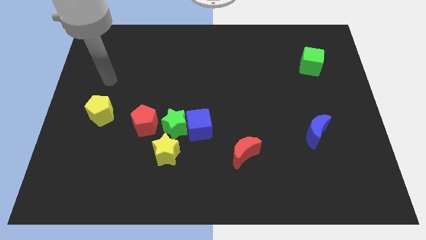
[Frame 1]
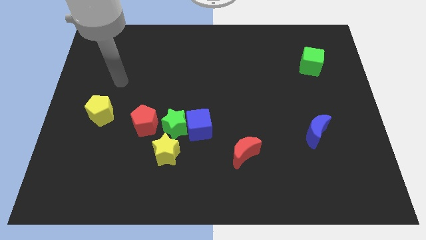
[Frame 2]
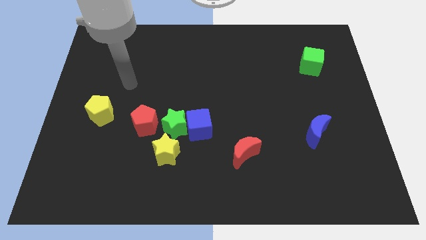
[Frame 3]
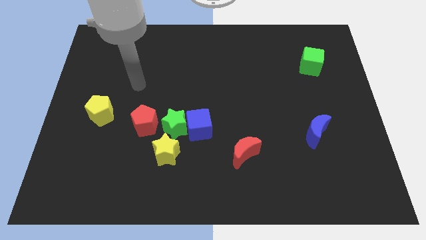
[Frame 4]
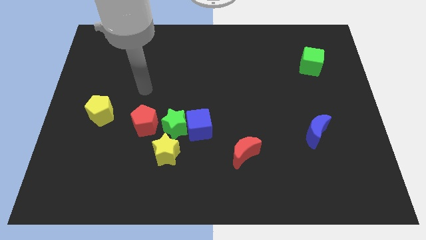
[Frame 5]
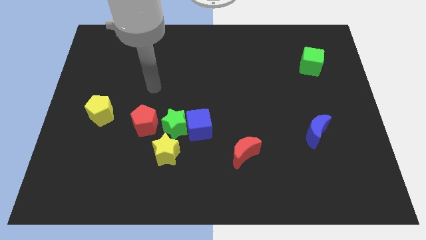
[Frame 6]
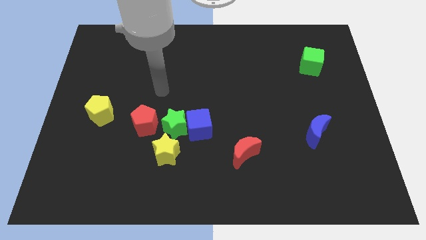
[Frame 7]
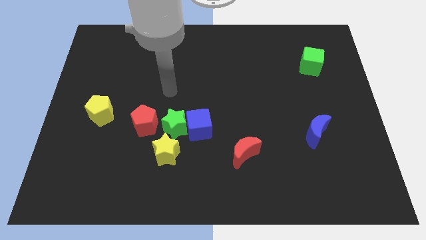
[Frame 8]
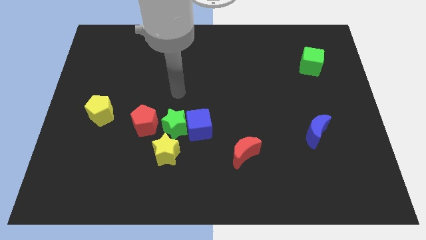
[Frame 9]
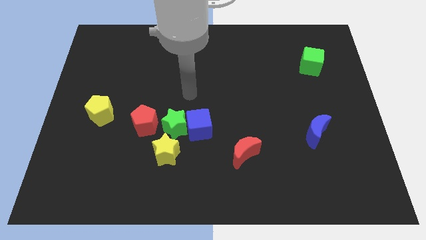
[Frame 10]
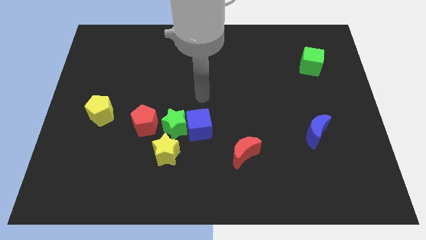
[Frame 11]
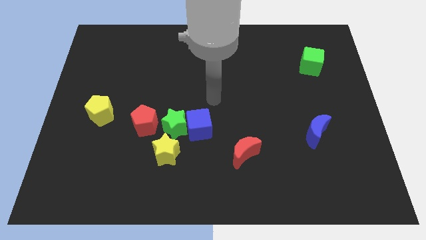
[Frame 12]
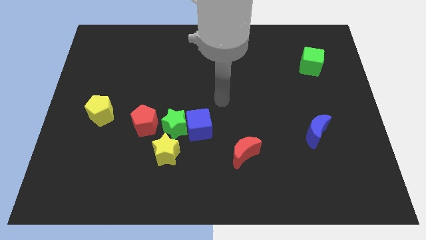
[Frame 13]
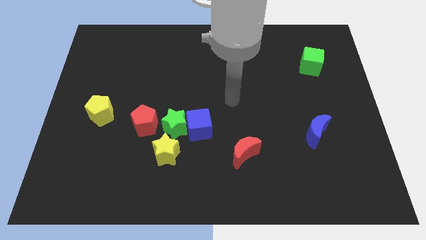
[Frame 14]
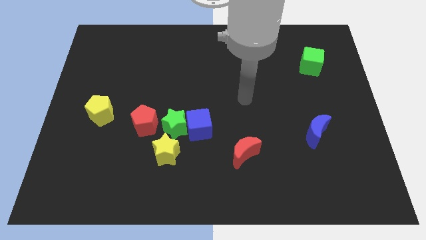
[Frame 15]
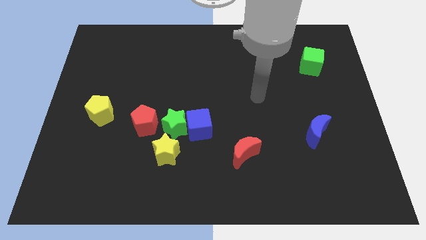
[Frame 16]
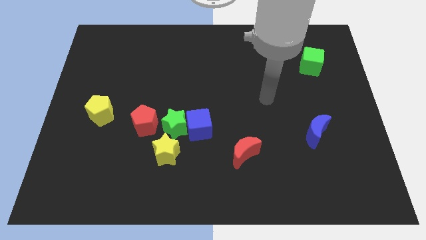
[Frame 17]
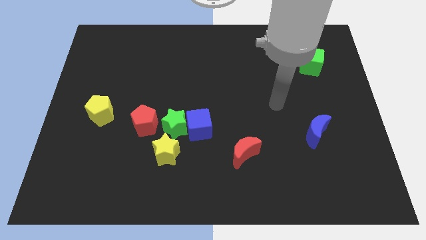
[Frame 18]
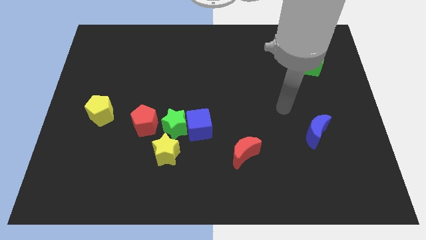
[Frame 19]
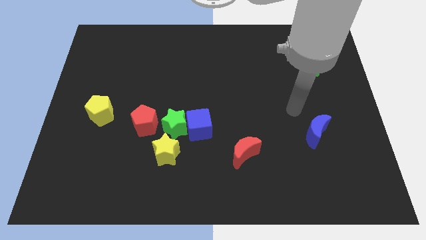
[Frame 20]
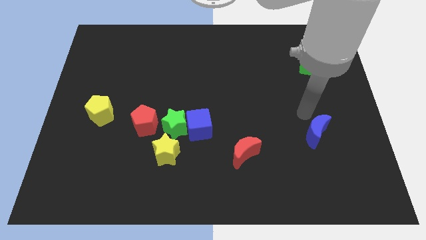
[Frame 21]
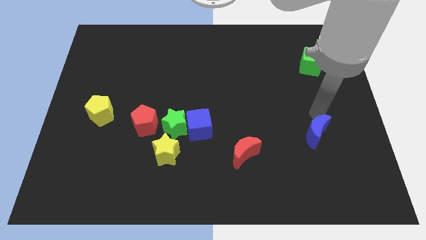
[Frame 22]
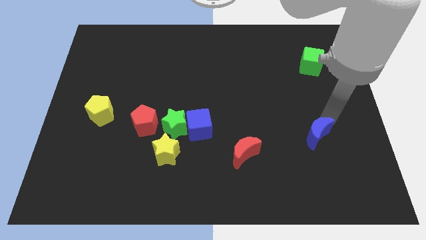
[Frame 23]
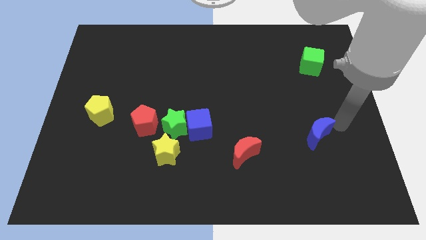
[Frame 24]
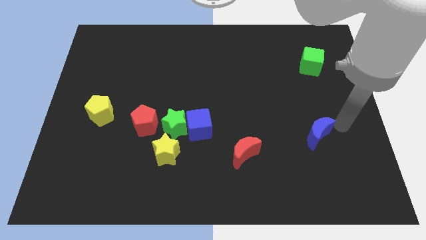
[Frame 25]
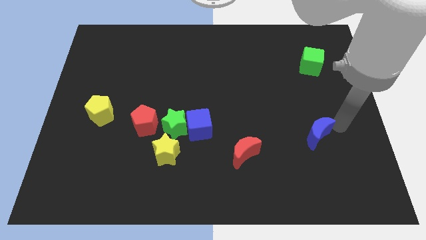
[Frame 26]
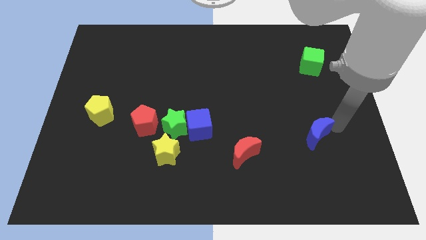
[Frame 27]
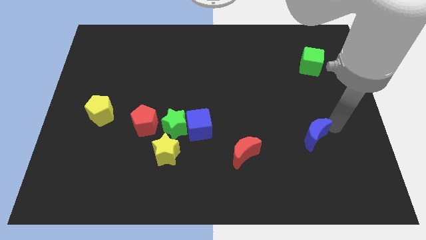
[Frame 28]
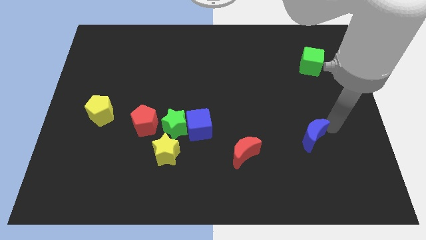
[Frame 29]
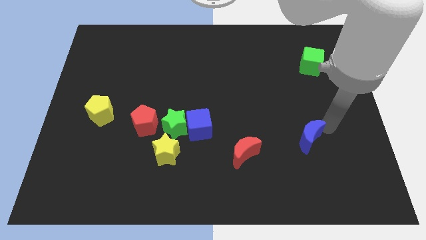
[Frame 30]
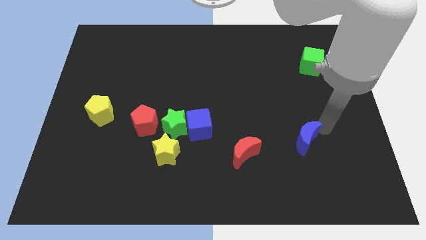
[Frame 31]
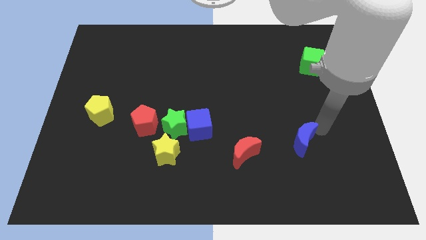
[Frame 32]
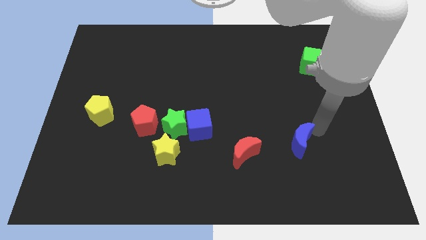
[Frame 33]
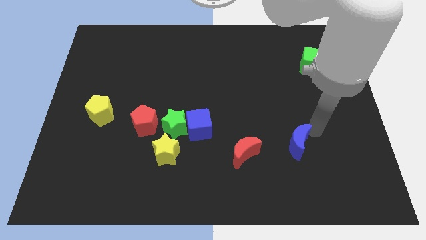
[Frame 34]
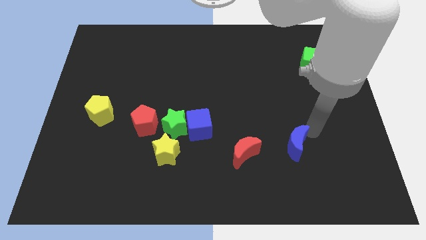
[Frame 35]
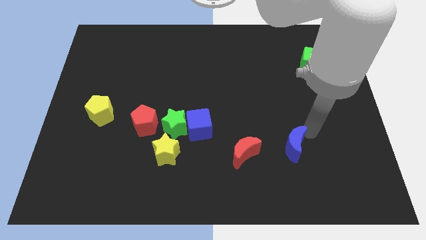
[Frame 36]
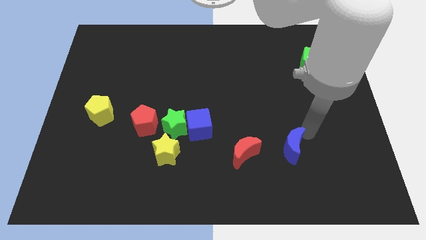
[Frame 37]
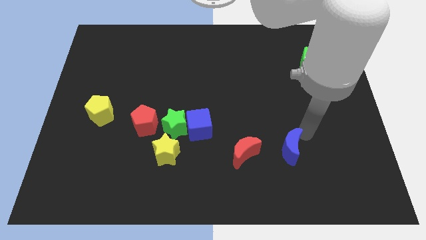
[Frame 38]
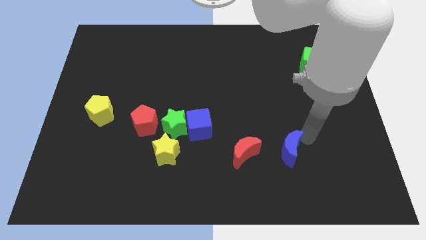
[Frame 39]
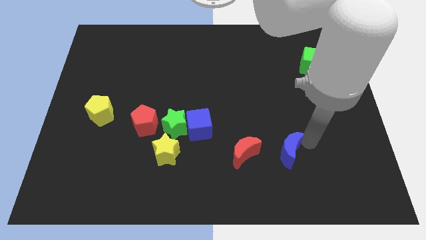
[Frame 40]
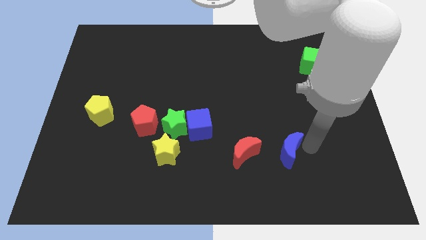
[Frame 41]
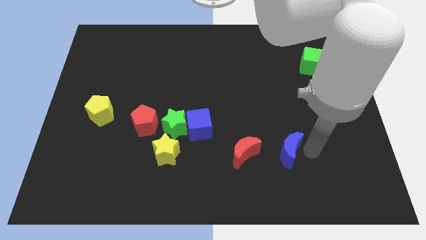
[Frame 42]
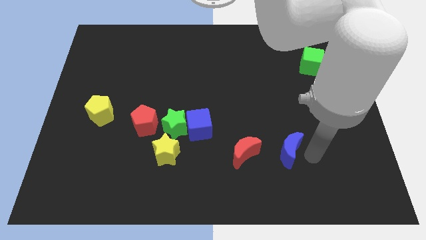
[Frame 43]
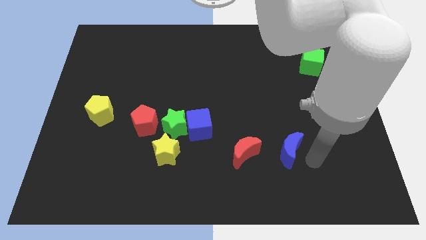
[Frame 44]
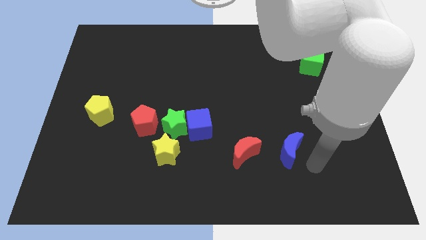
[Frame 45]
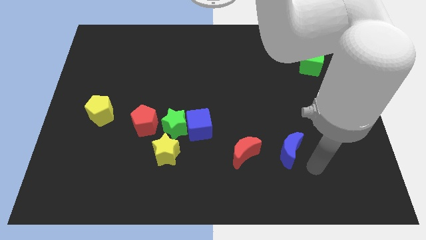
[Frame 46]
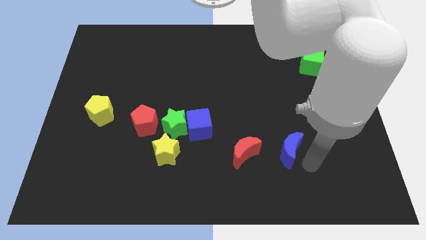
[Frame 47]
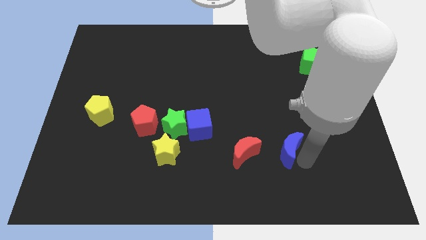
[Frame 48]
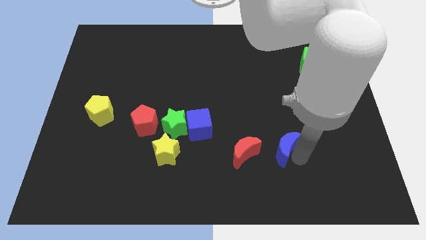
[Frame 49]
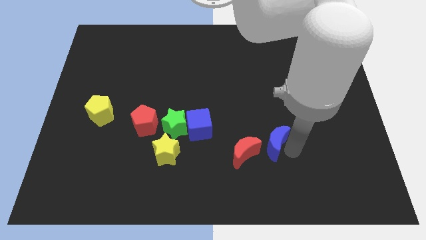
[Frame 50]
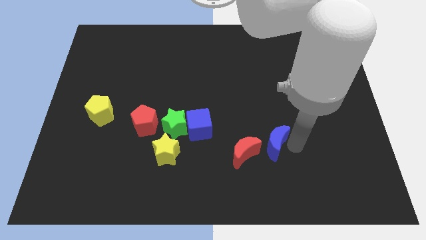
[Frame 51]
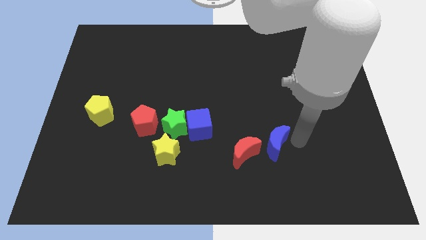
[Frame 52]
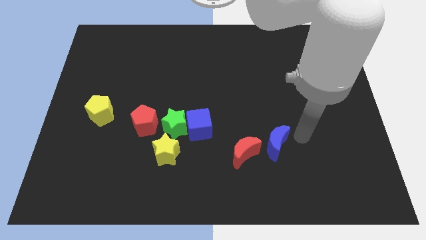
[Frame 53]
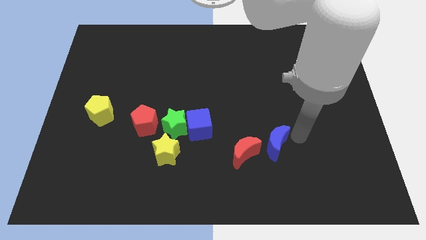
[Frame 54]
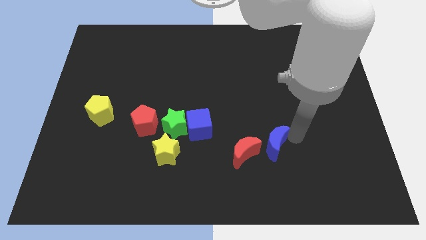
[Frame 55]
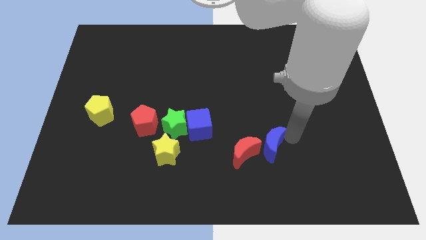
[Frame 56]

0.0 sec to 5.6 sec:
move the blue moon towards the red moon

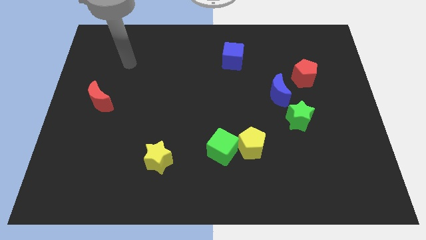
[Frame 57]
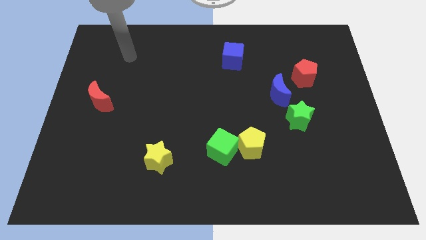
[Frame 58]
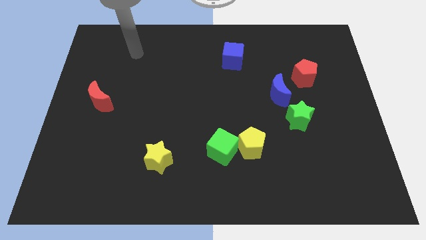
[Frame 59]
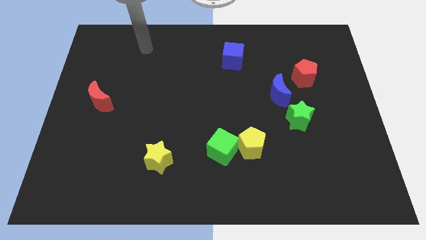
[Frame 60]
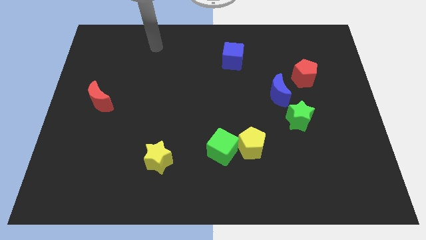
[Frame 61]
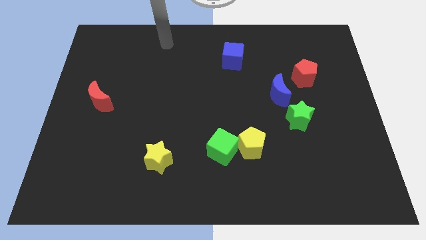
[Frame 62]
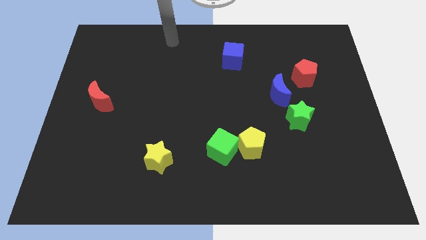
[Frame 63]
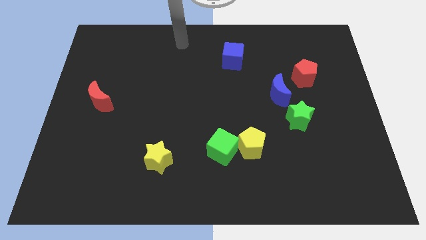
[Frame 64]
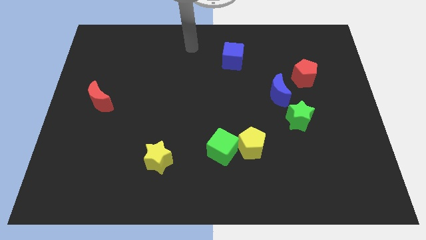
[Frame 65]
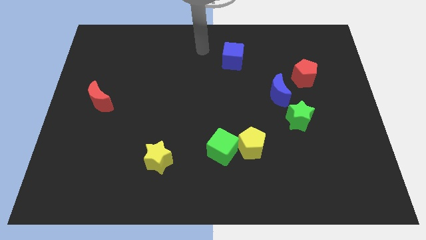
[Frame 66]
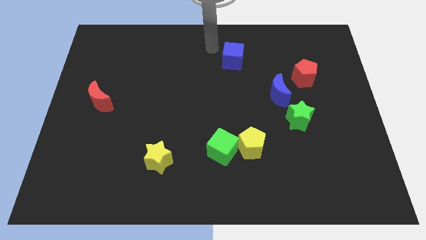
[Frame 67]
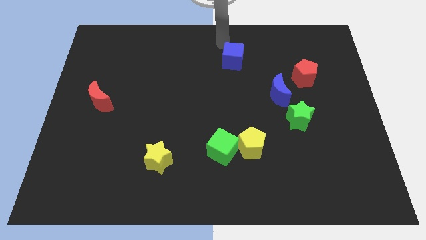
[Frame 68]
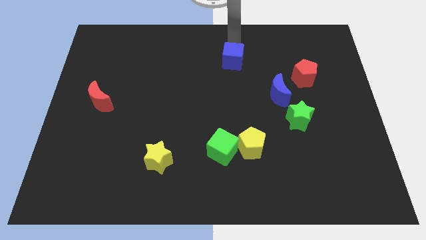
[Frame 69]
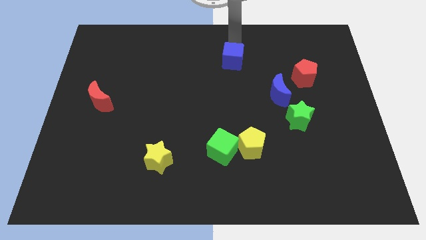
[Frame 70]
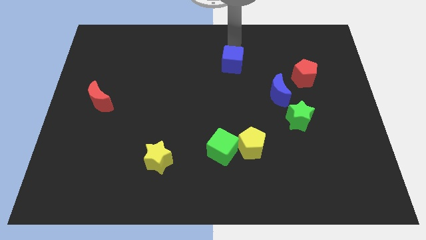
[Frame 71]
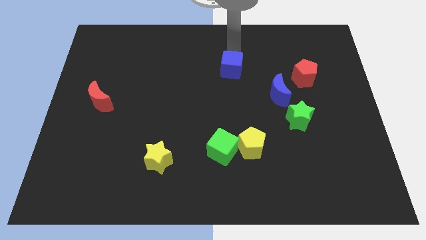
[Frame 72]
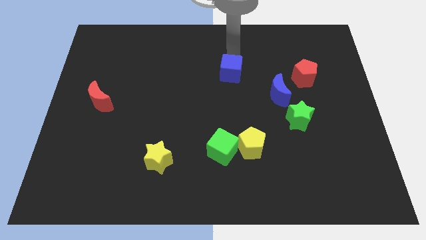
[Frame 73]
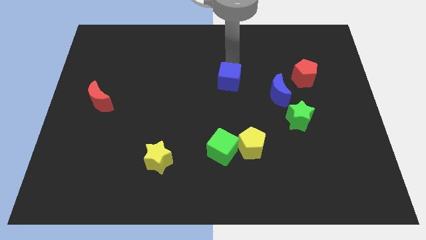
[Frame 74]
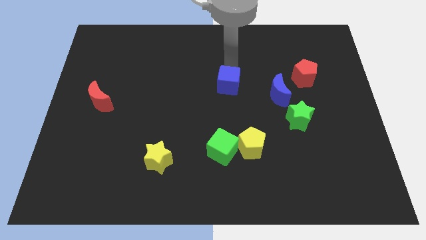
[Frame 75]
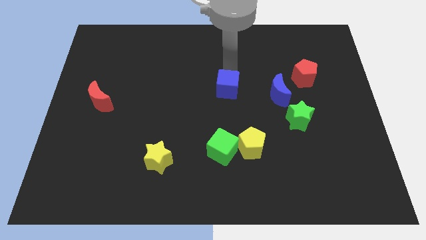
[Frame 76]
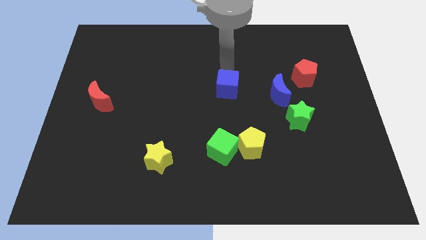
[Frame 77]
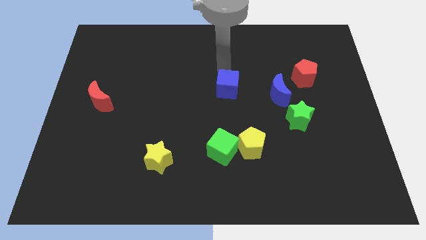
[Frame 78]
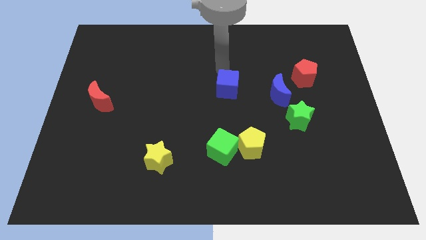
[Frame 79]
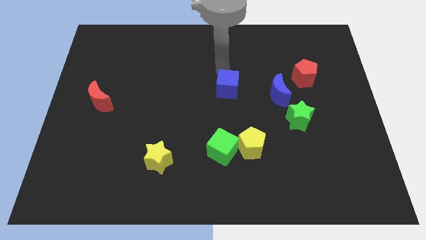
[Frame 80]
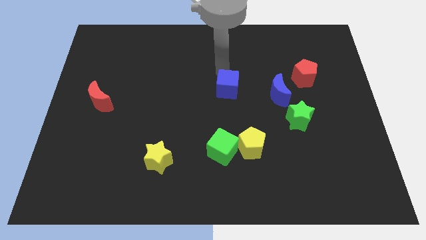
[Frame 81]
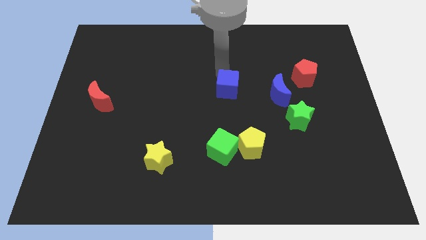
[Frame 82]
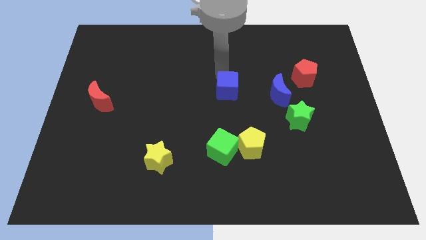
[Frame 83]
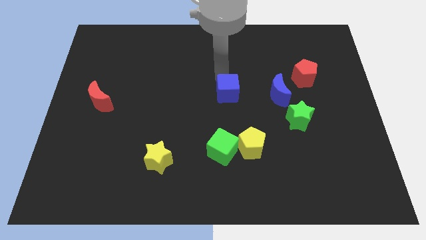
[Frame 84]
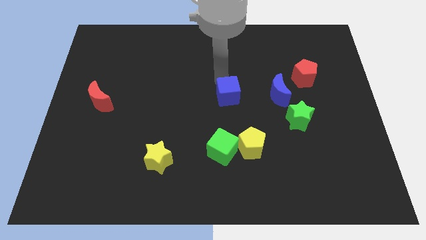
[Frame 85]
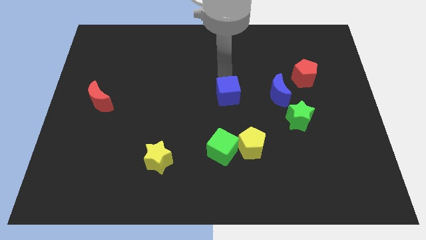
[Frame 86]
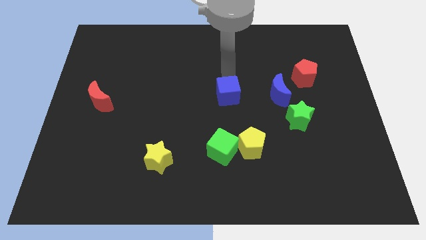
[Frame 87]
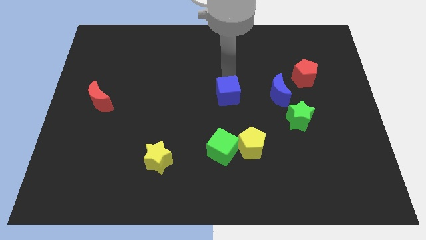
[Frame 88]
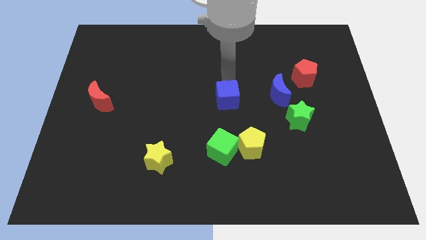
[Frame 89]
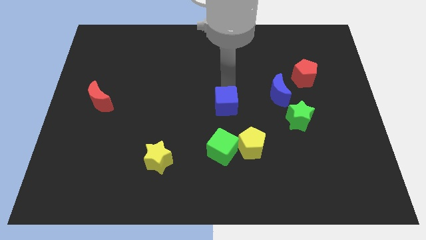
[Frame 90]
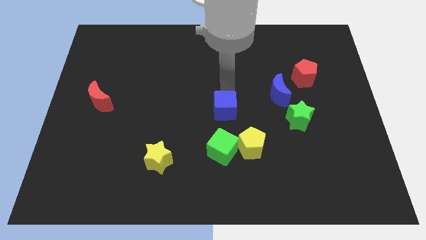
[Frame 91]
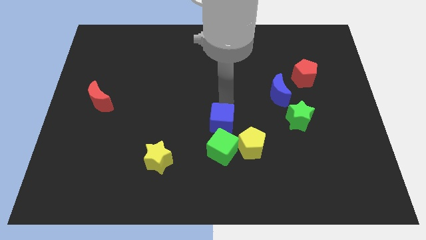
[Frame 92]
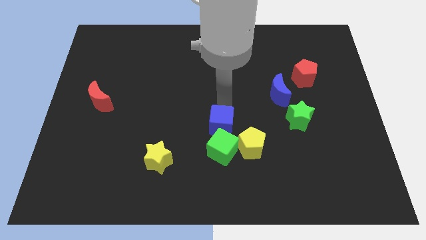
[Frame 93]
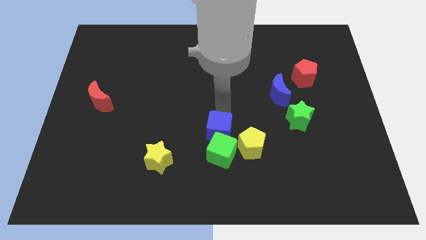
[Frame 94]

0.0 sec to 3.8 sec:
put the blue cube next to the green cube
